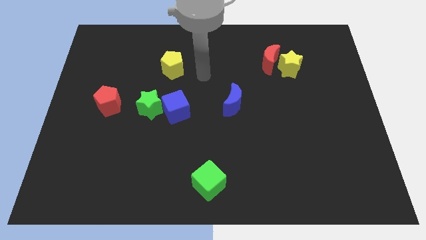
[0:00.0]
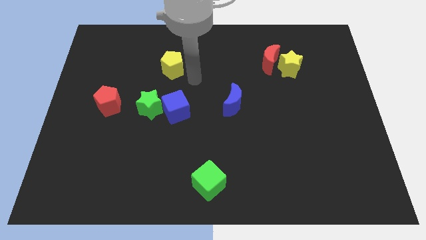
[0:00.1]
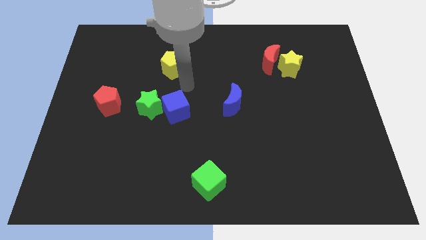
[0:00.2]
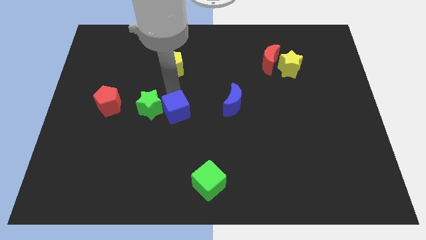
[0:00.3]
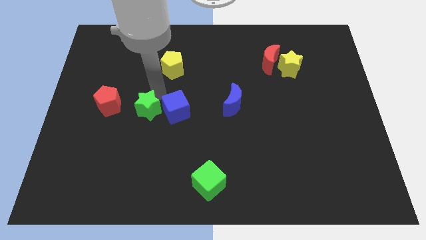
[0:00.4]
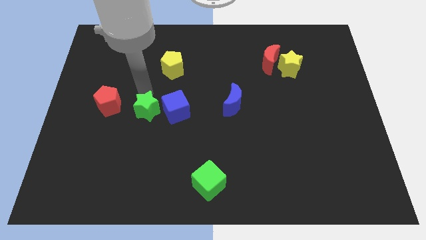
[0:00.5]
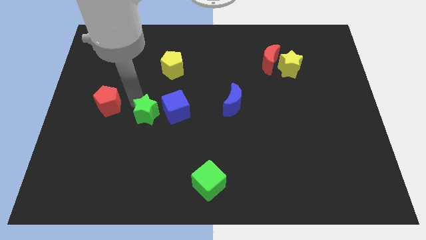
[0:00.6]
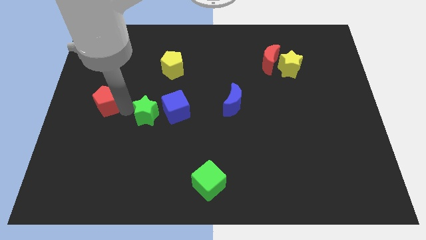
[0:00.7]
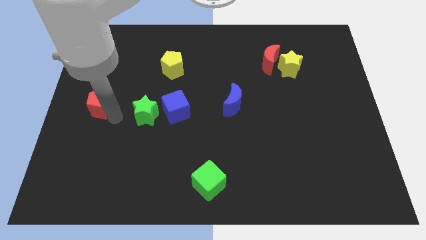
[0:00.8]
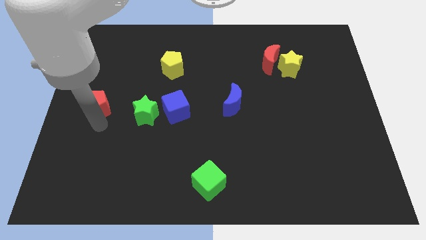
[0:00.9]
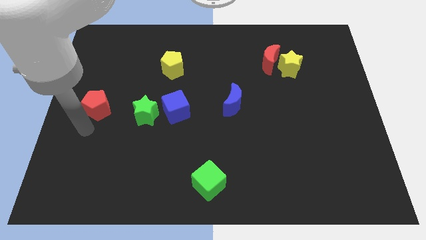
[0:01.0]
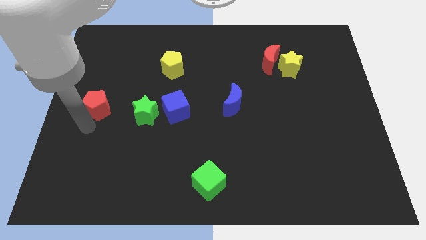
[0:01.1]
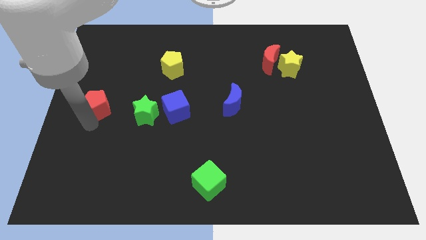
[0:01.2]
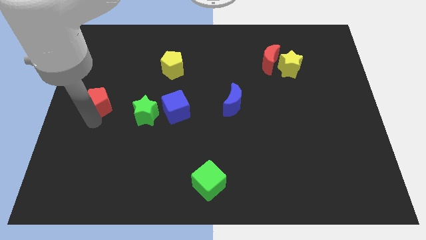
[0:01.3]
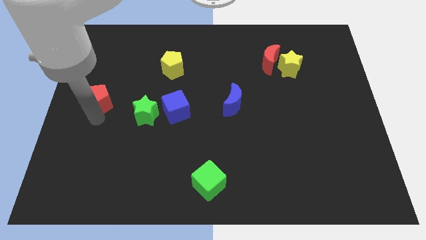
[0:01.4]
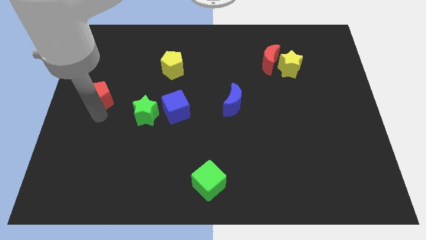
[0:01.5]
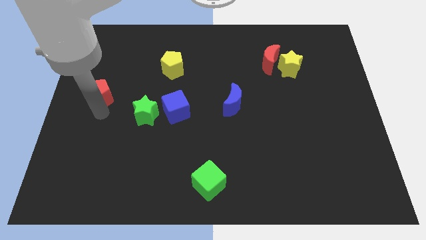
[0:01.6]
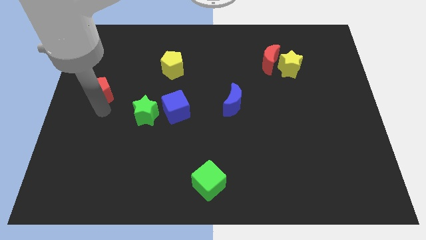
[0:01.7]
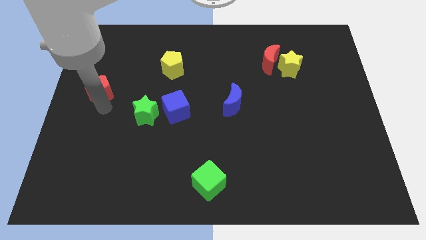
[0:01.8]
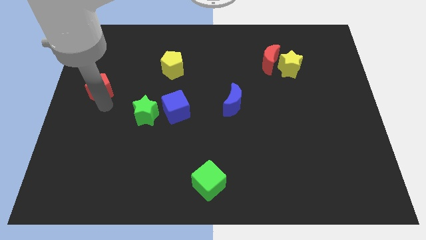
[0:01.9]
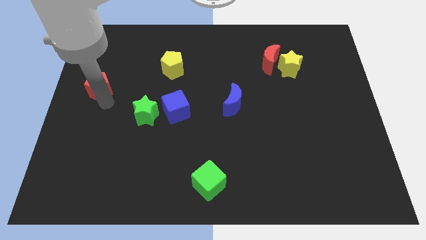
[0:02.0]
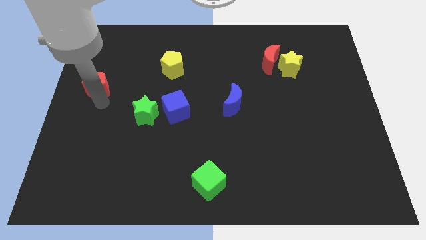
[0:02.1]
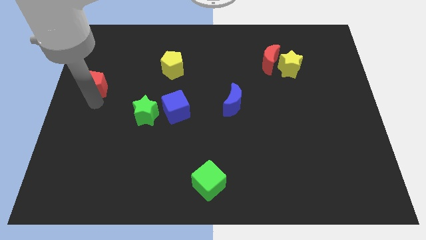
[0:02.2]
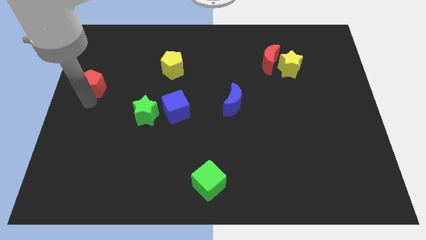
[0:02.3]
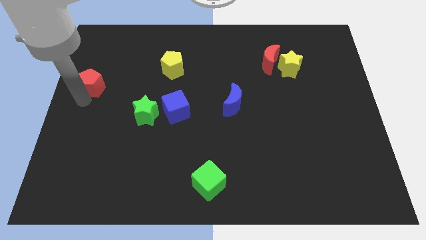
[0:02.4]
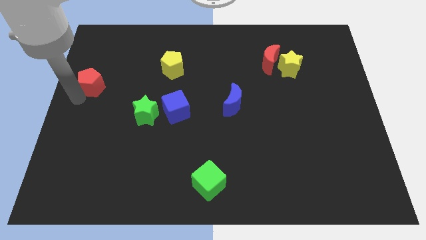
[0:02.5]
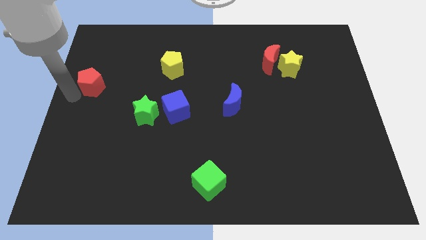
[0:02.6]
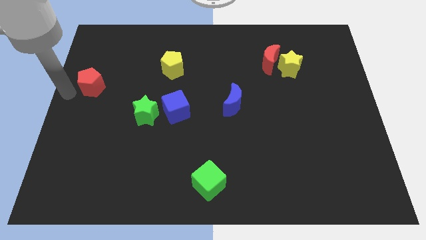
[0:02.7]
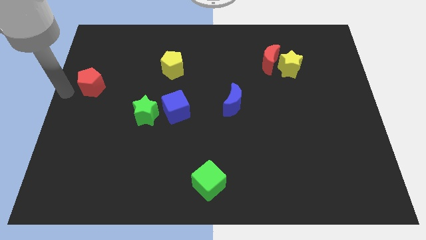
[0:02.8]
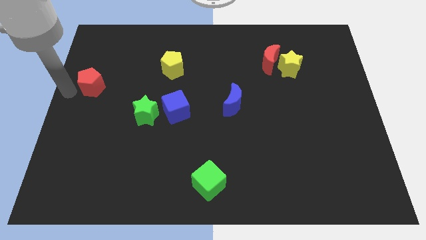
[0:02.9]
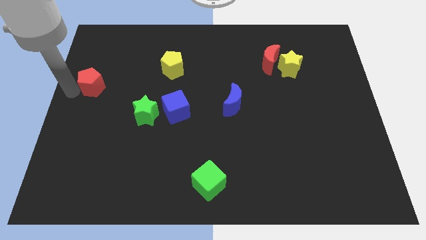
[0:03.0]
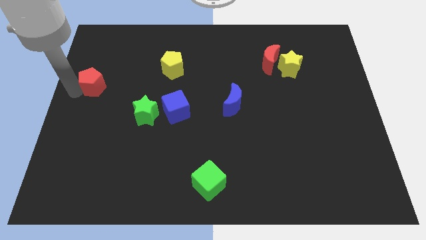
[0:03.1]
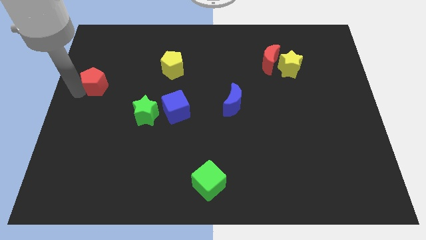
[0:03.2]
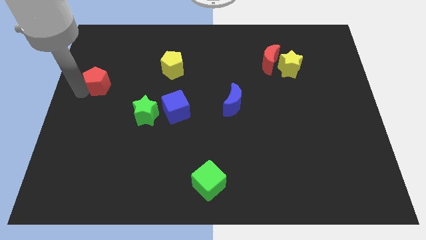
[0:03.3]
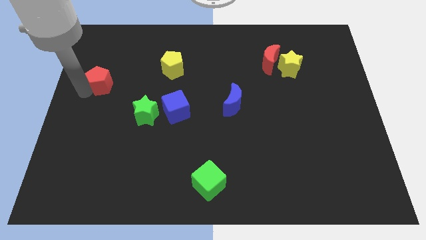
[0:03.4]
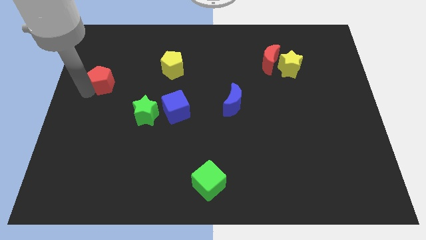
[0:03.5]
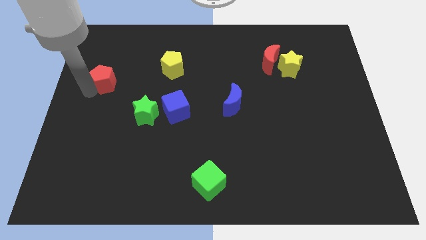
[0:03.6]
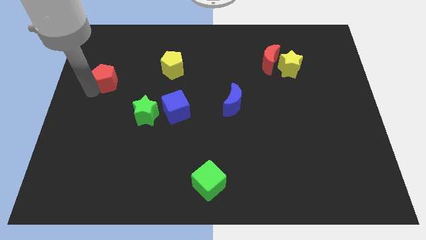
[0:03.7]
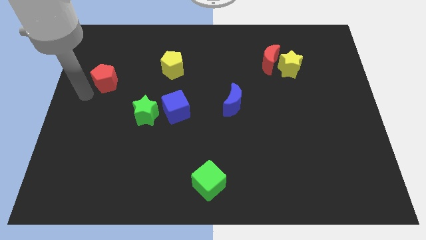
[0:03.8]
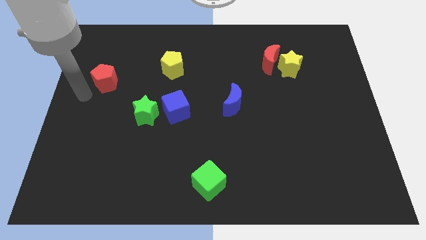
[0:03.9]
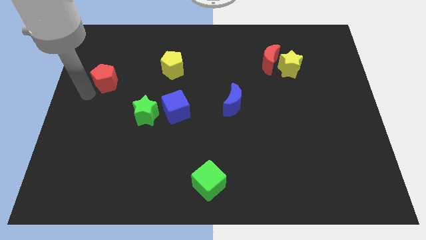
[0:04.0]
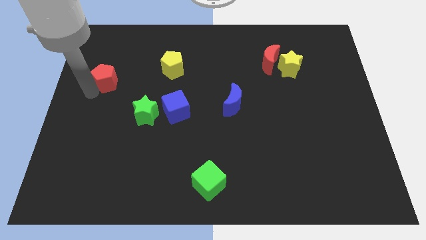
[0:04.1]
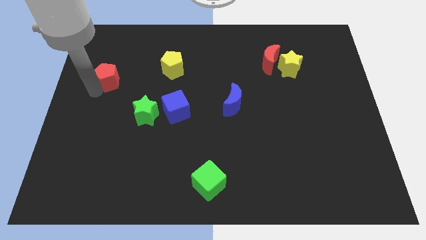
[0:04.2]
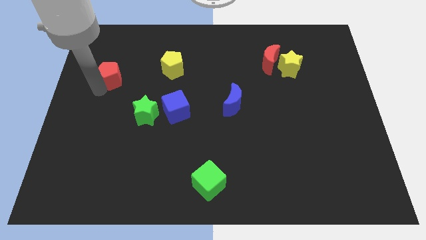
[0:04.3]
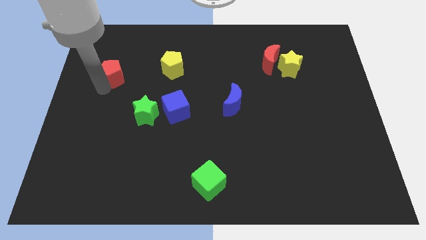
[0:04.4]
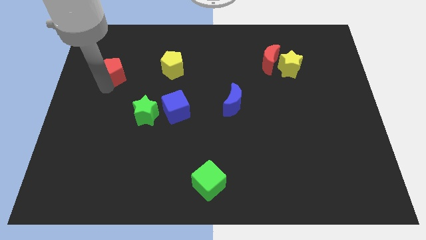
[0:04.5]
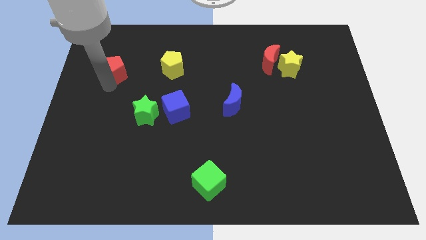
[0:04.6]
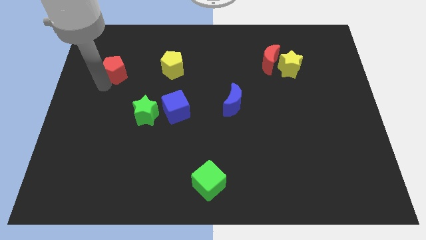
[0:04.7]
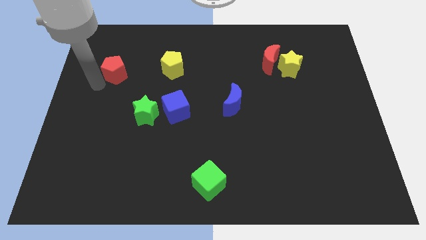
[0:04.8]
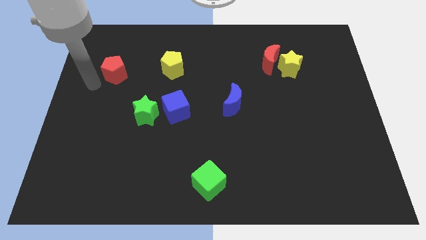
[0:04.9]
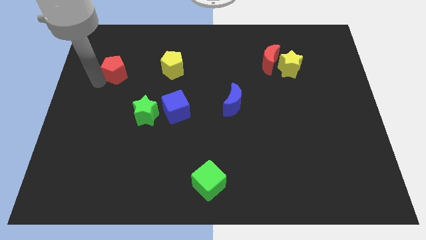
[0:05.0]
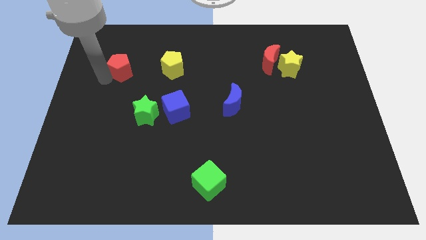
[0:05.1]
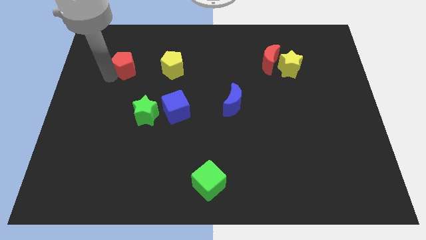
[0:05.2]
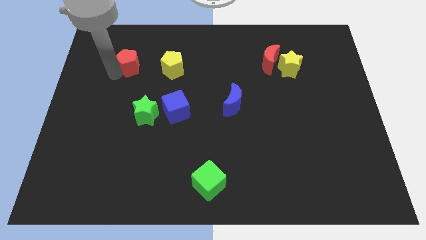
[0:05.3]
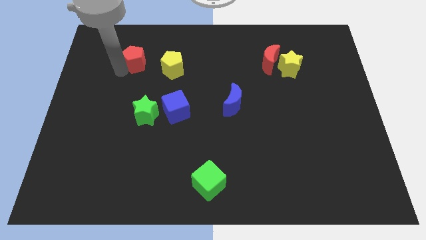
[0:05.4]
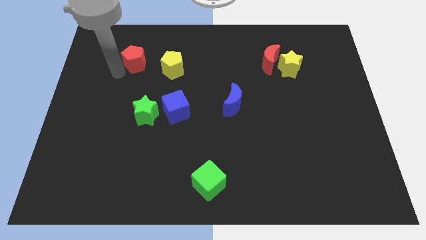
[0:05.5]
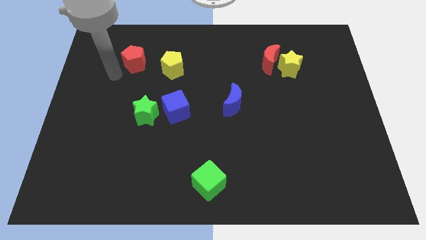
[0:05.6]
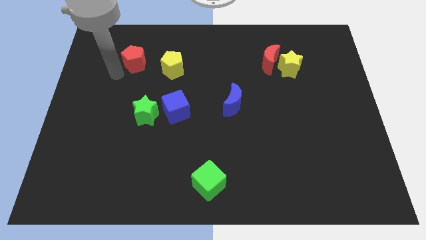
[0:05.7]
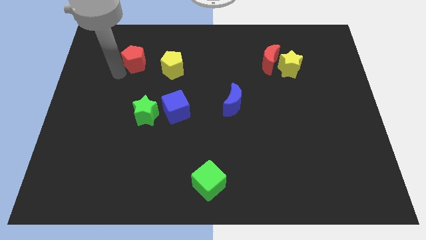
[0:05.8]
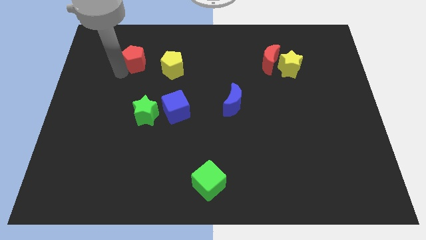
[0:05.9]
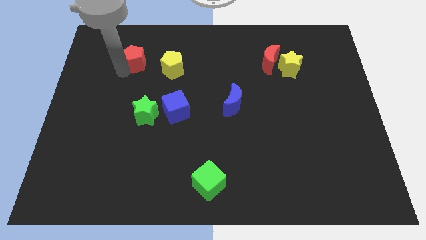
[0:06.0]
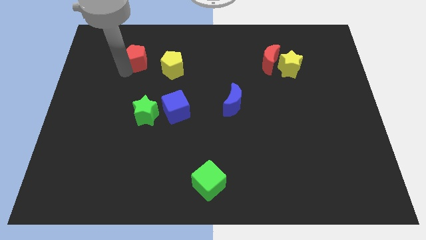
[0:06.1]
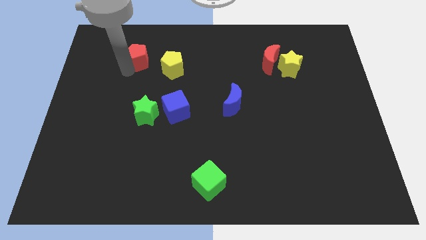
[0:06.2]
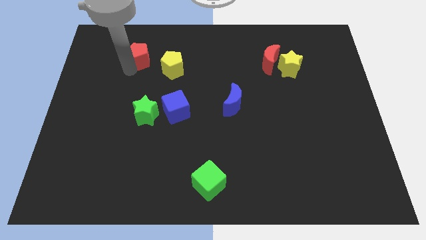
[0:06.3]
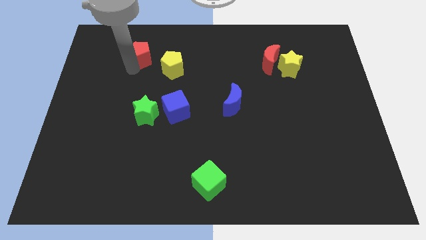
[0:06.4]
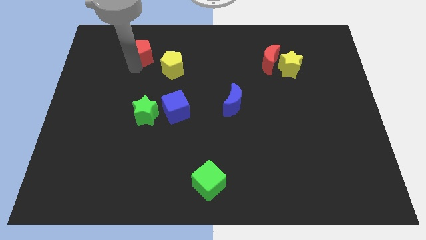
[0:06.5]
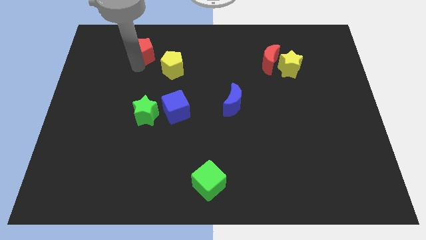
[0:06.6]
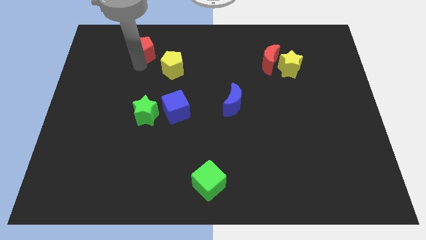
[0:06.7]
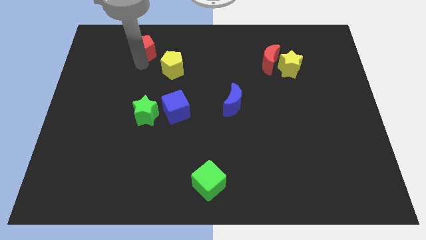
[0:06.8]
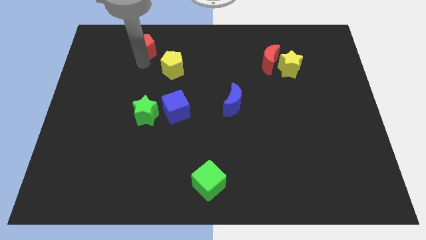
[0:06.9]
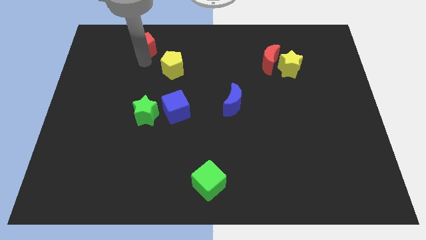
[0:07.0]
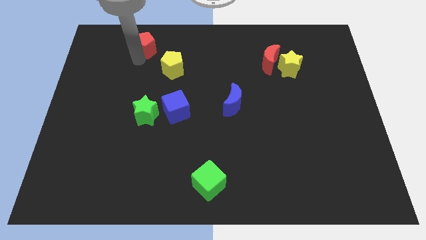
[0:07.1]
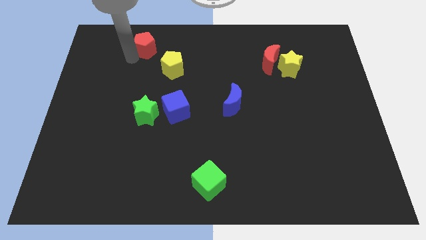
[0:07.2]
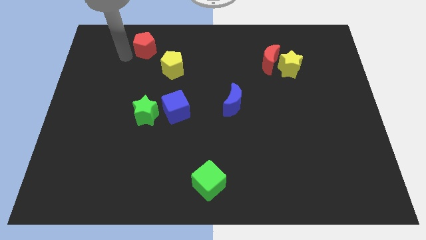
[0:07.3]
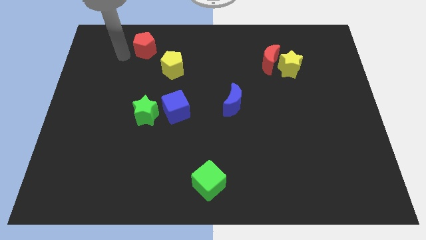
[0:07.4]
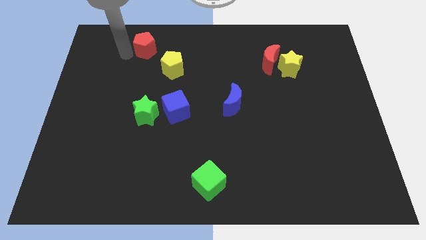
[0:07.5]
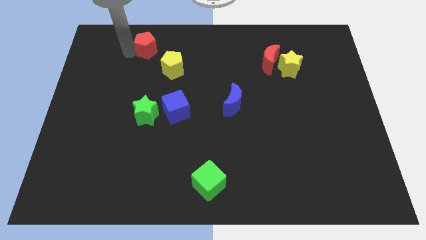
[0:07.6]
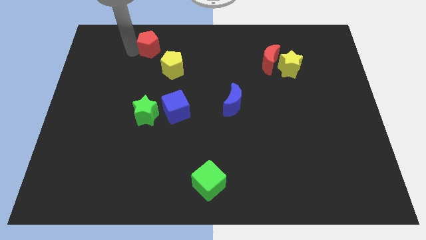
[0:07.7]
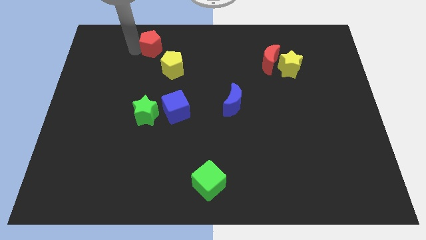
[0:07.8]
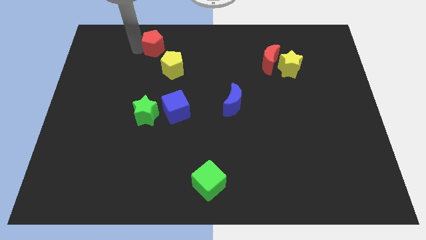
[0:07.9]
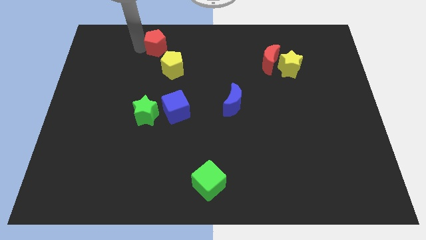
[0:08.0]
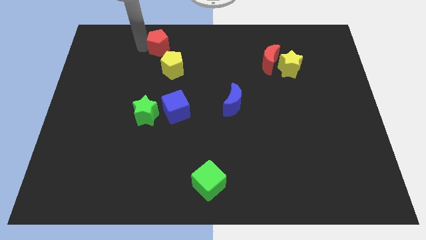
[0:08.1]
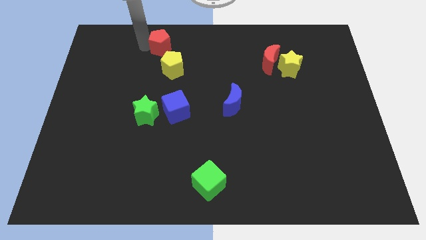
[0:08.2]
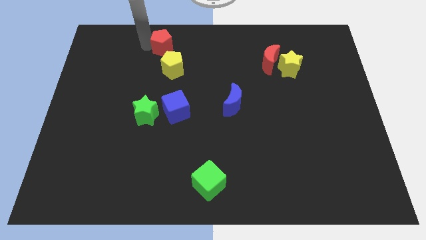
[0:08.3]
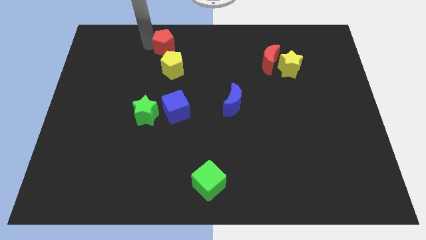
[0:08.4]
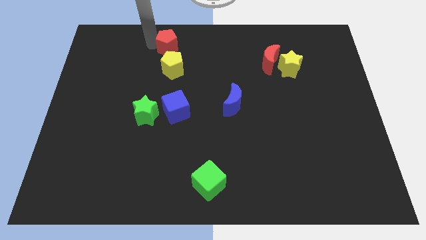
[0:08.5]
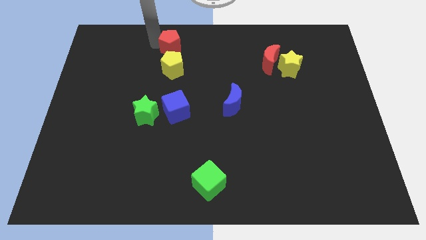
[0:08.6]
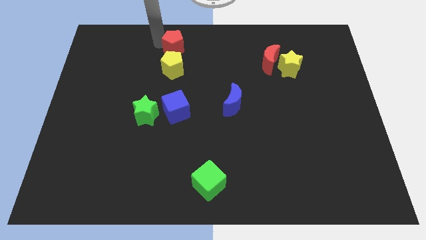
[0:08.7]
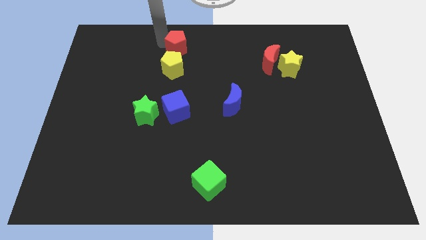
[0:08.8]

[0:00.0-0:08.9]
move the red pentagon to the towards your base
